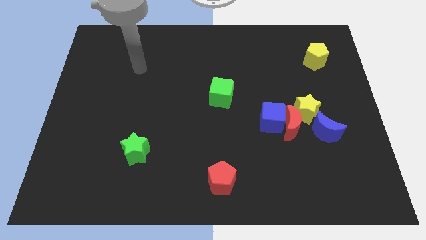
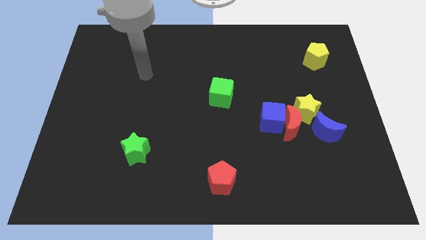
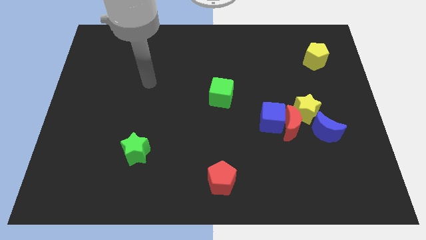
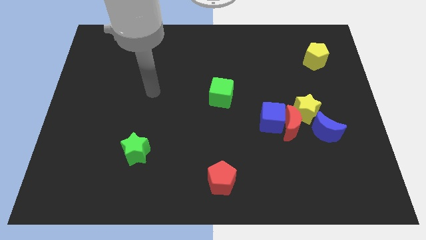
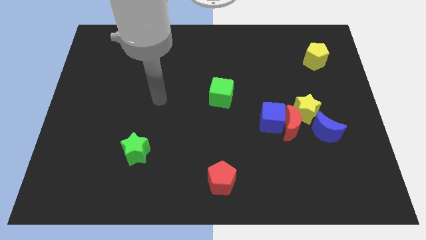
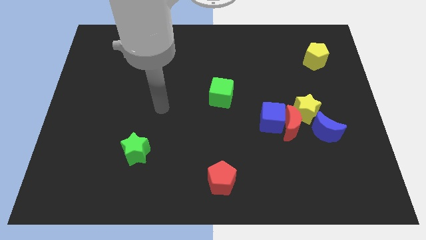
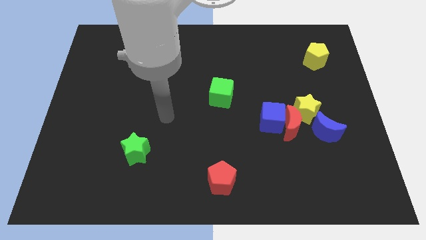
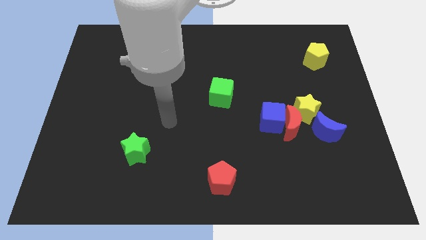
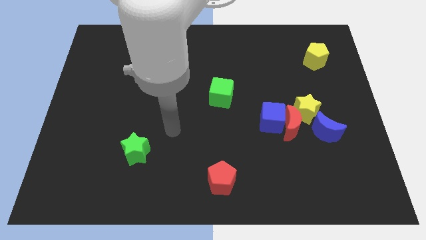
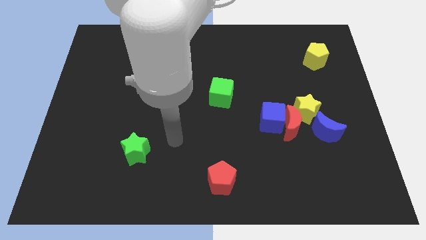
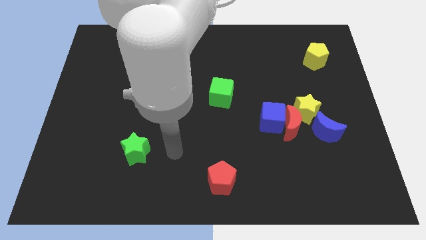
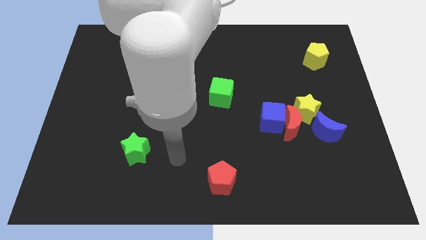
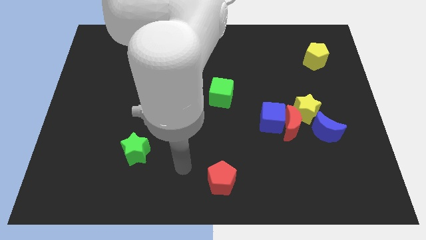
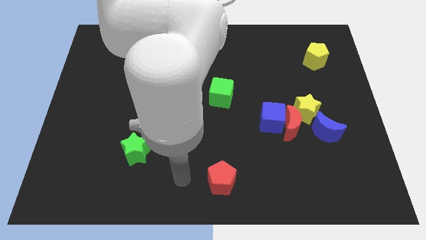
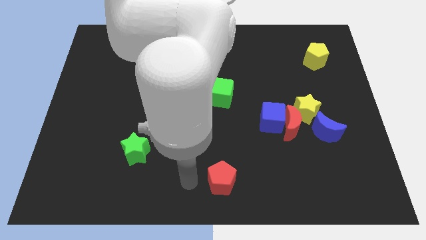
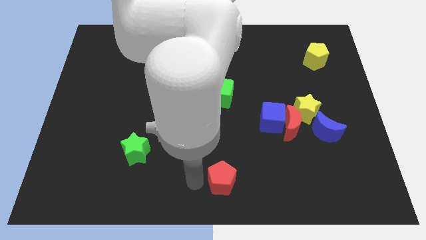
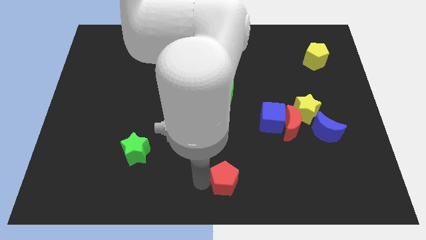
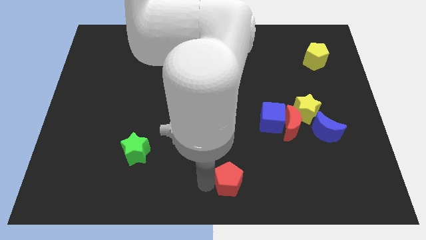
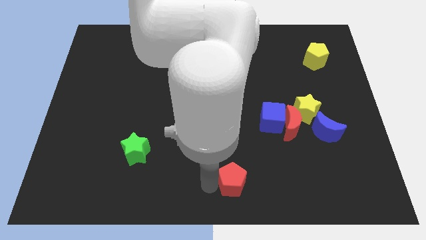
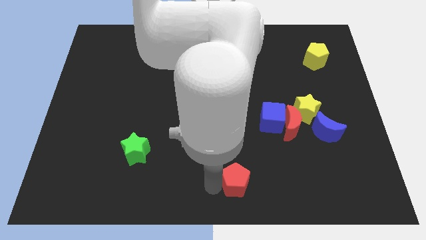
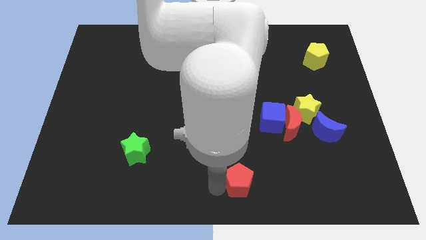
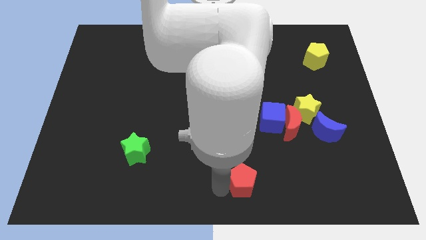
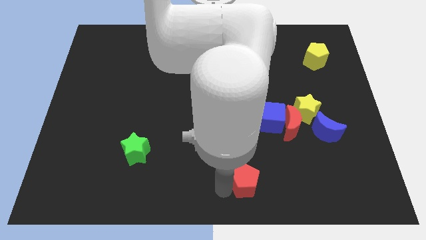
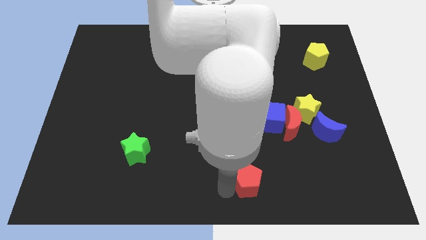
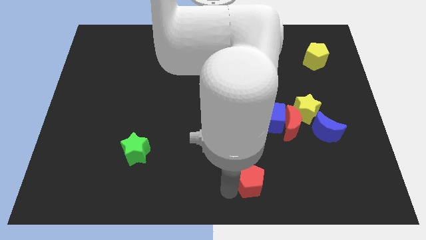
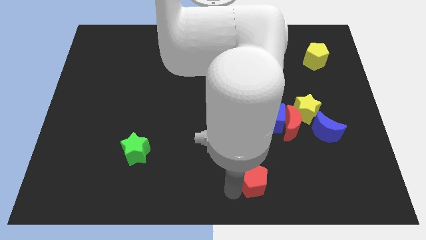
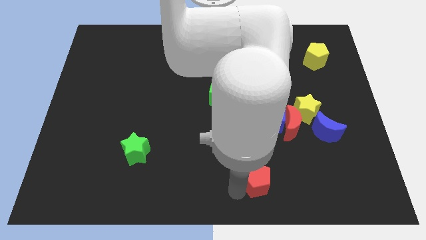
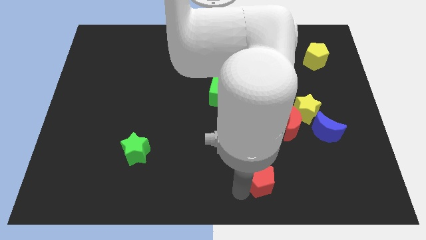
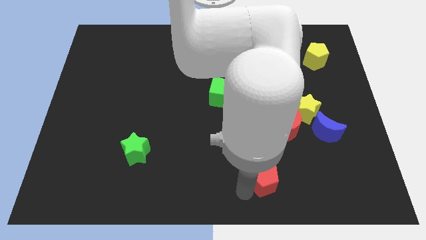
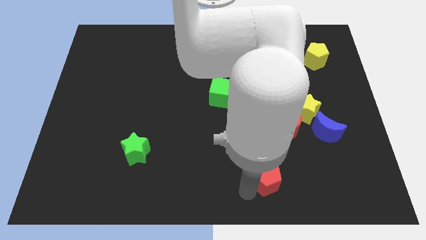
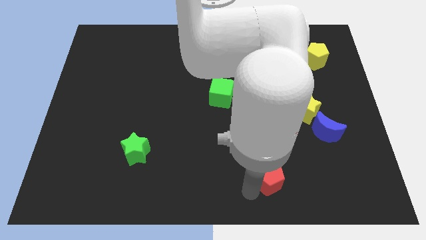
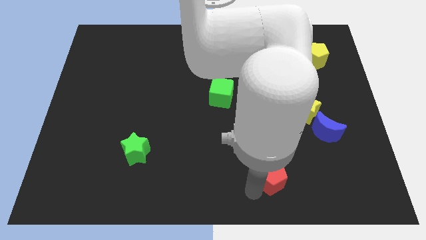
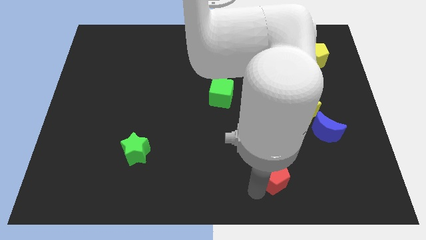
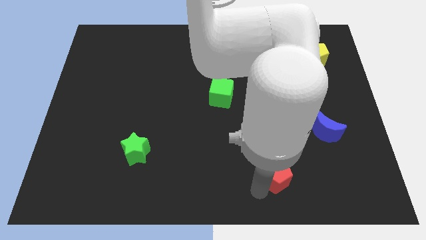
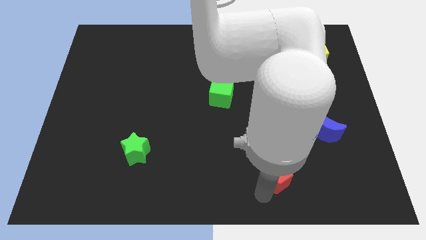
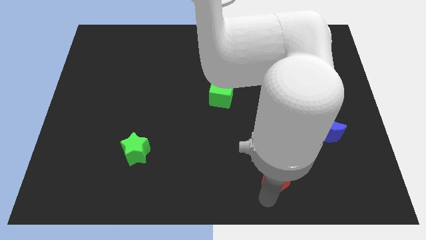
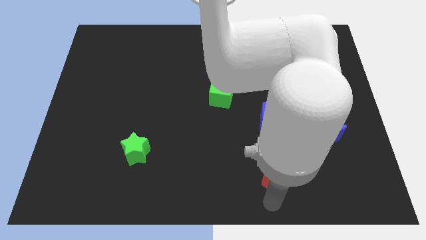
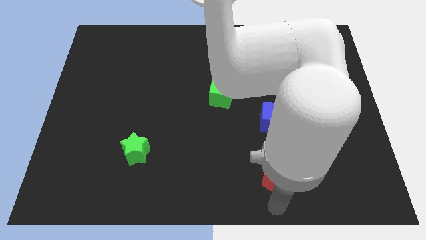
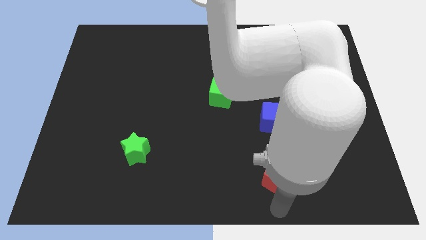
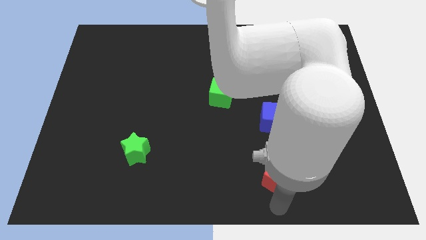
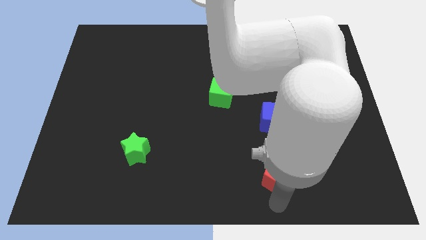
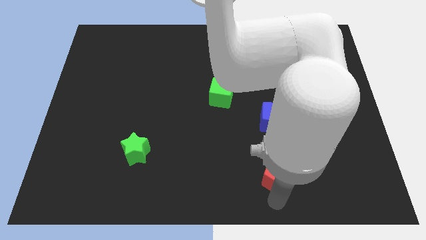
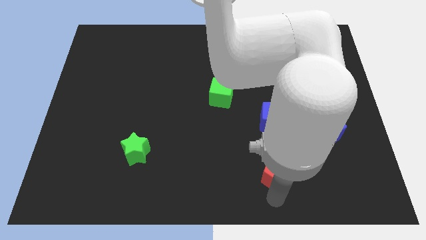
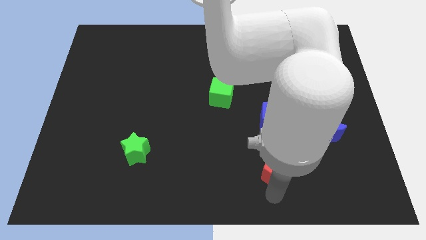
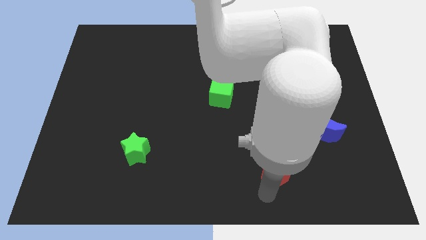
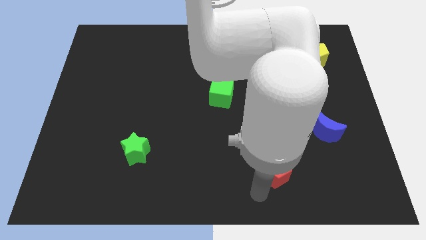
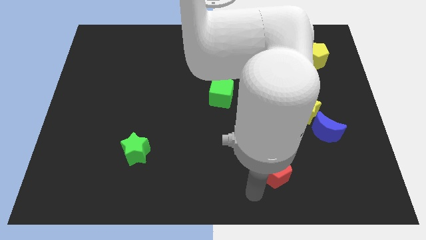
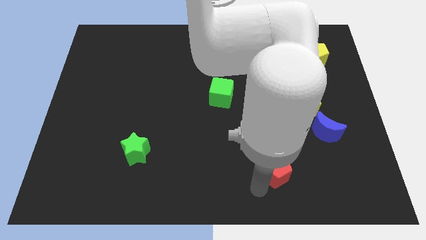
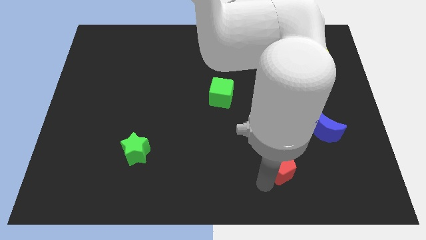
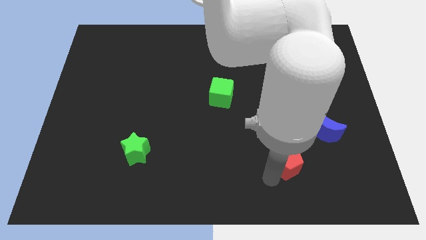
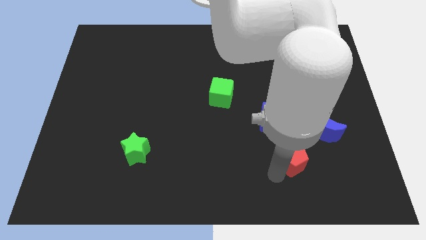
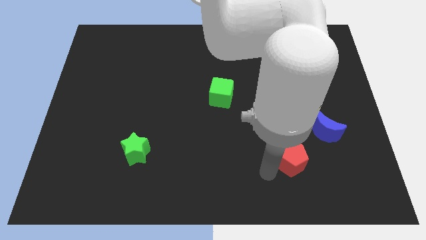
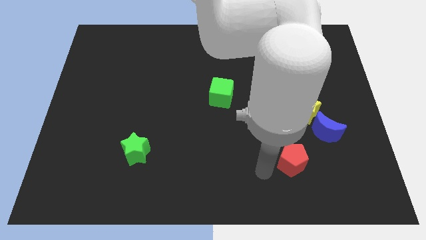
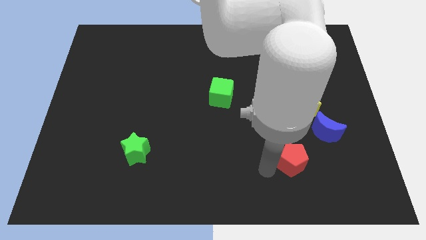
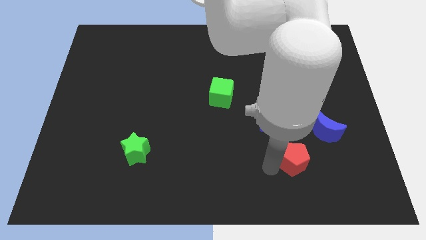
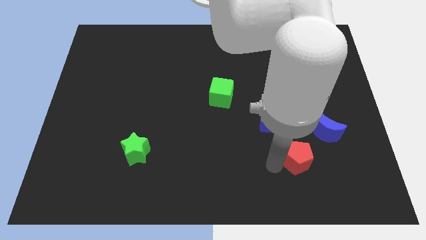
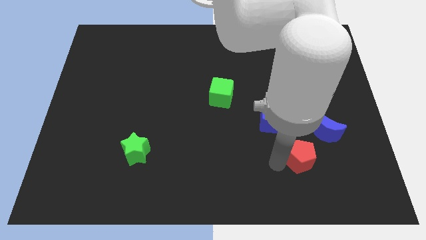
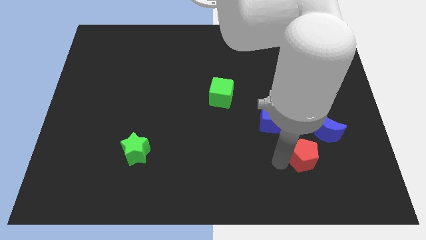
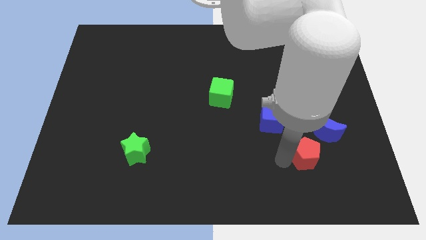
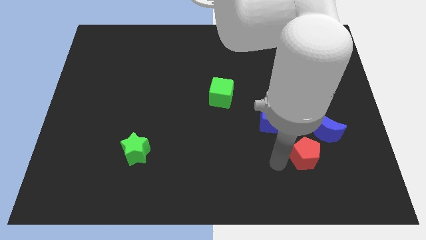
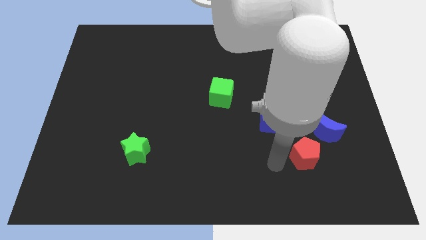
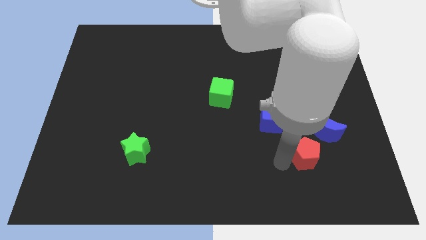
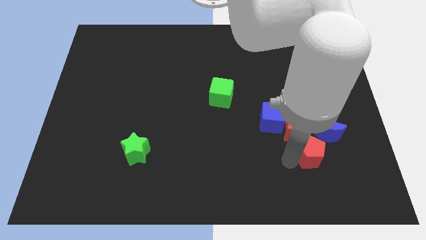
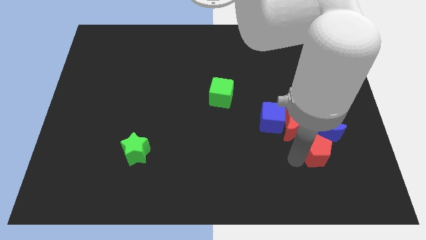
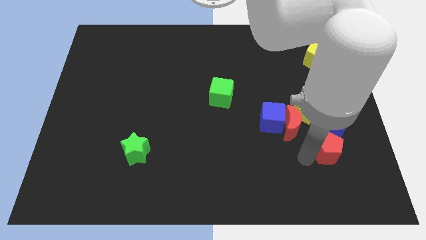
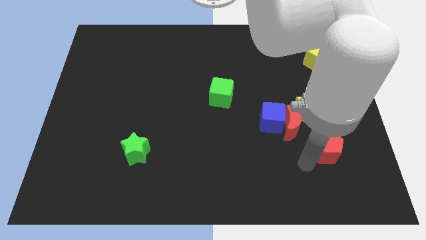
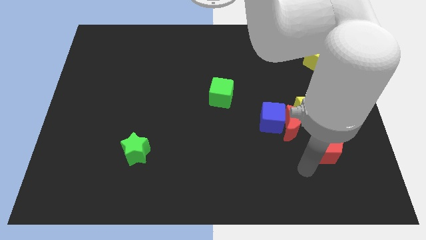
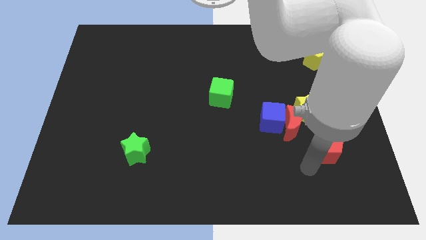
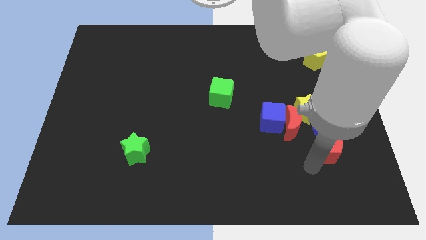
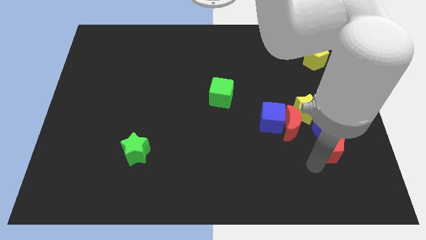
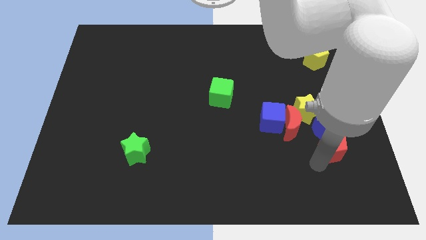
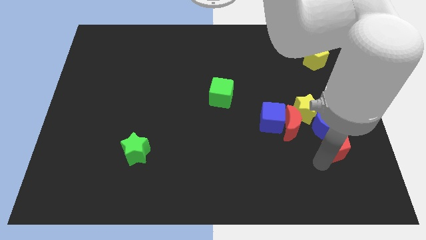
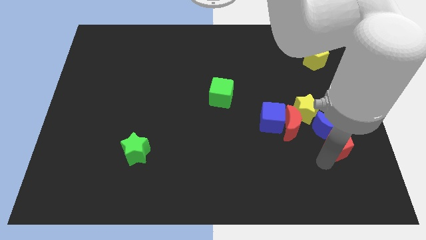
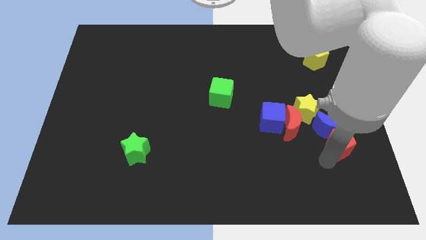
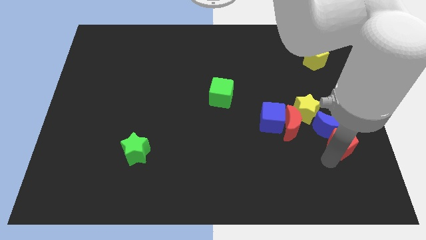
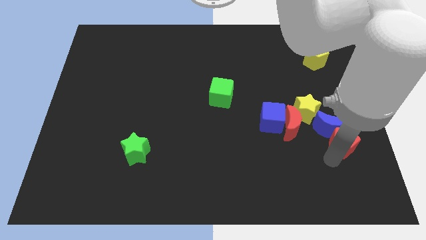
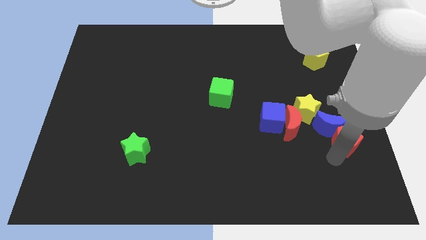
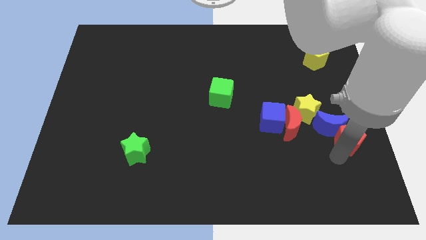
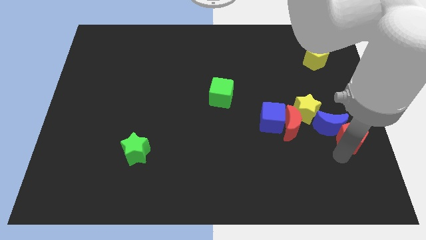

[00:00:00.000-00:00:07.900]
move the red pentagon to the right side of the board
